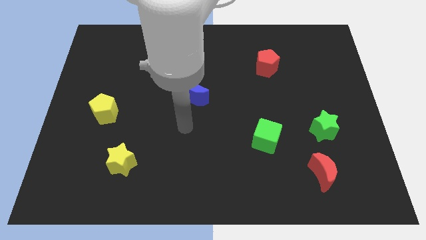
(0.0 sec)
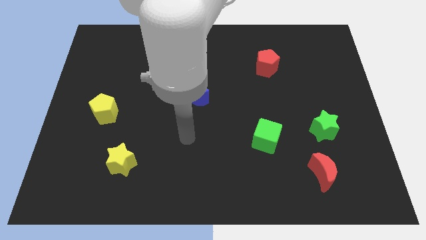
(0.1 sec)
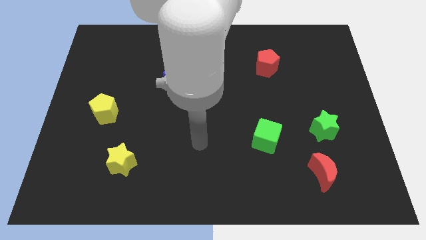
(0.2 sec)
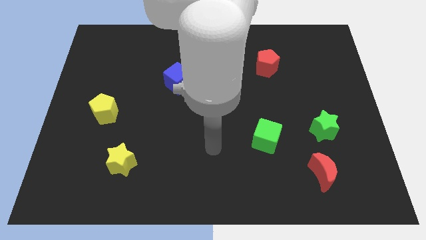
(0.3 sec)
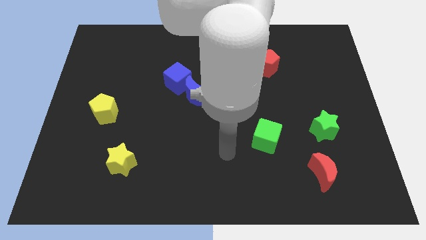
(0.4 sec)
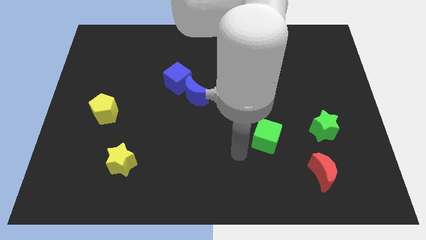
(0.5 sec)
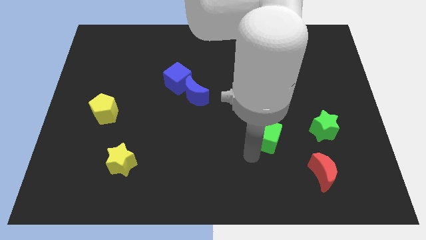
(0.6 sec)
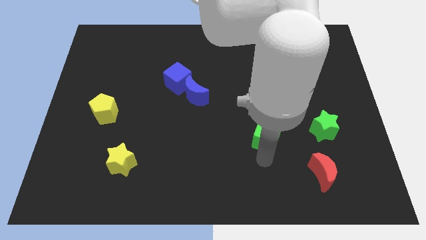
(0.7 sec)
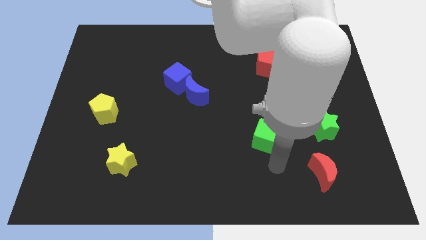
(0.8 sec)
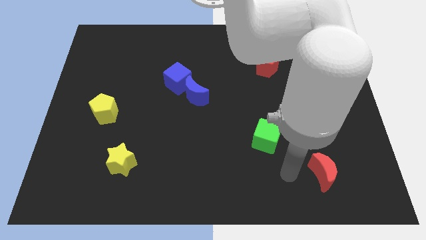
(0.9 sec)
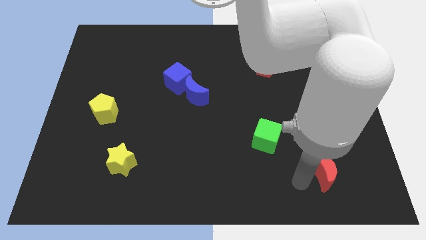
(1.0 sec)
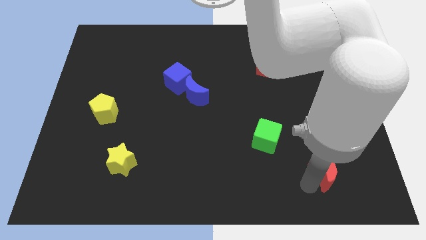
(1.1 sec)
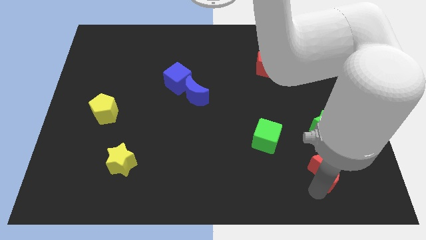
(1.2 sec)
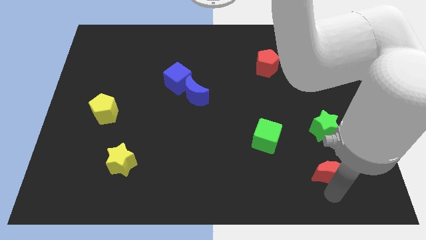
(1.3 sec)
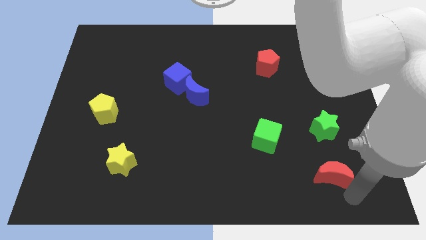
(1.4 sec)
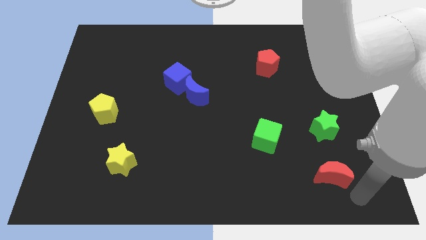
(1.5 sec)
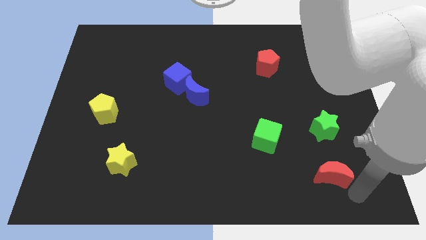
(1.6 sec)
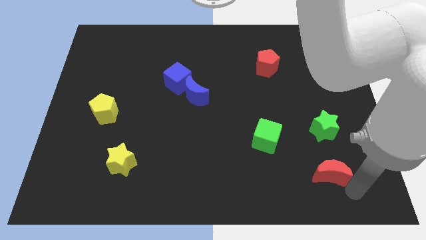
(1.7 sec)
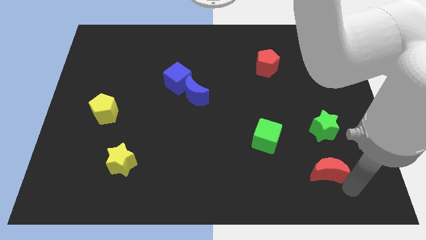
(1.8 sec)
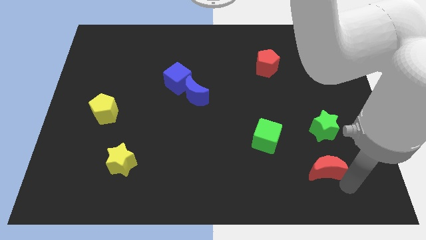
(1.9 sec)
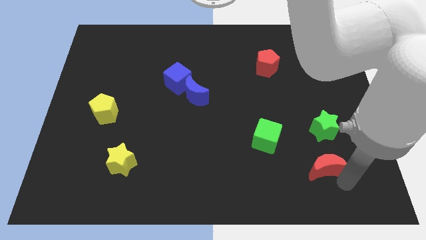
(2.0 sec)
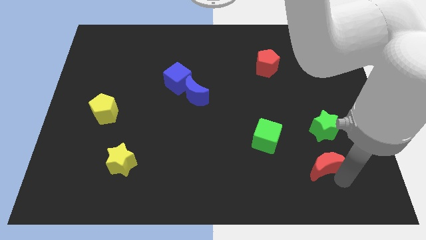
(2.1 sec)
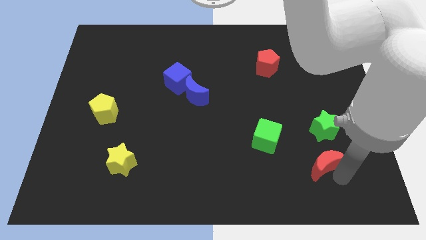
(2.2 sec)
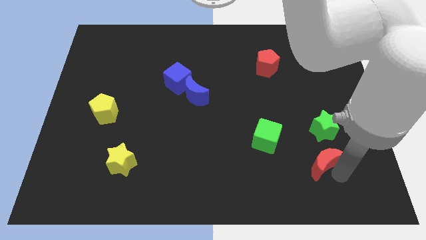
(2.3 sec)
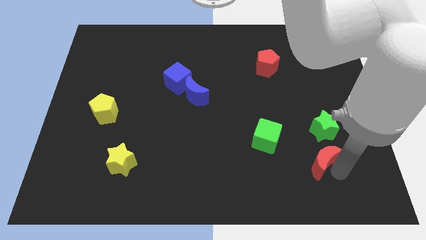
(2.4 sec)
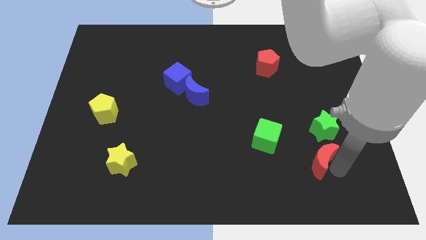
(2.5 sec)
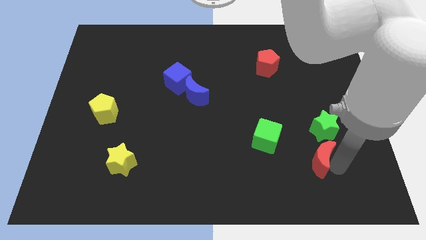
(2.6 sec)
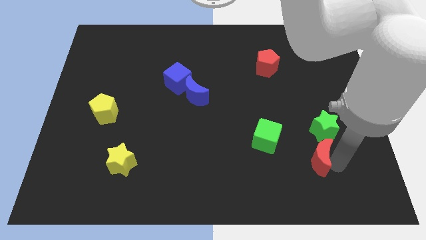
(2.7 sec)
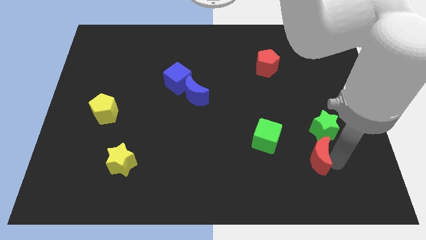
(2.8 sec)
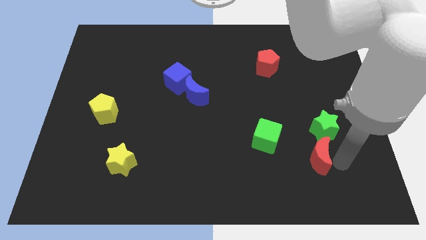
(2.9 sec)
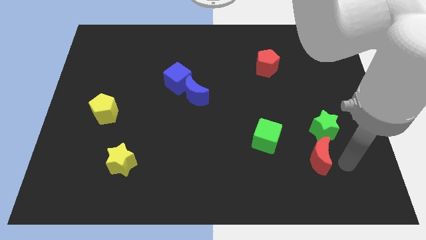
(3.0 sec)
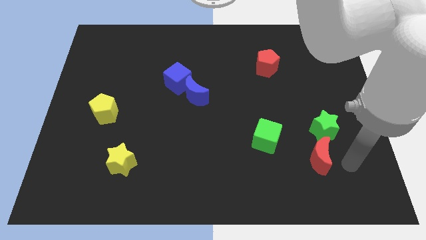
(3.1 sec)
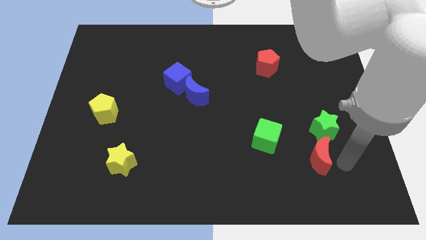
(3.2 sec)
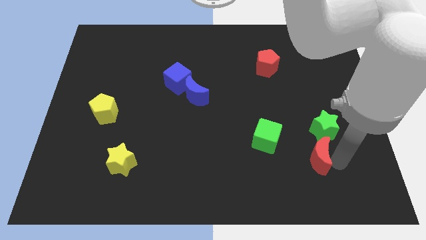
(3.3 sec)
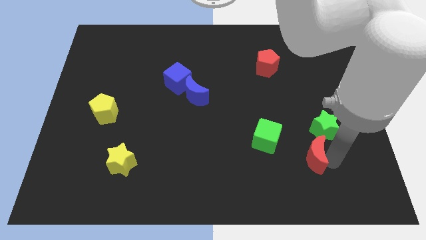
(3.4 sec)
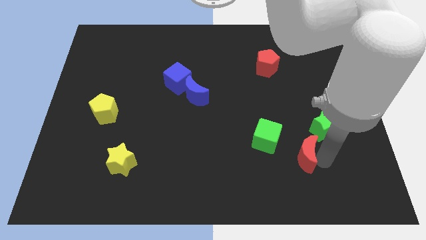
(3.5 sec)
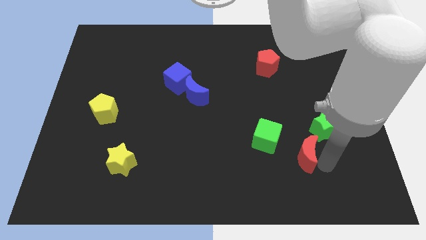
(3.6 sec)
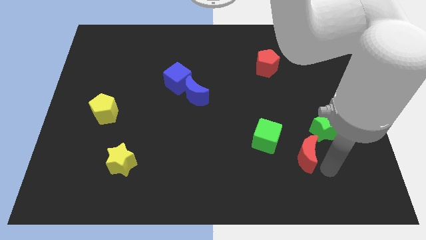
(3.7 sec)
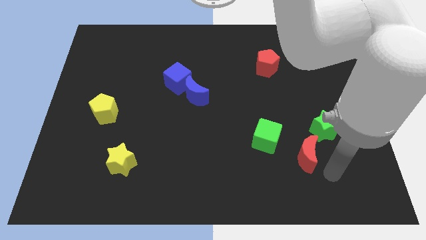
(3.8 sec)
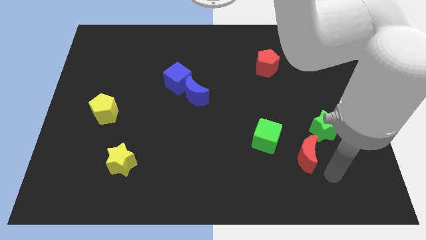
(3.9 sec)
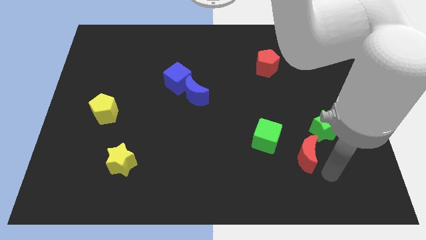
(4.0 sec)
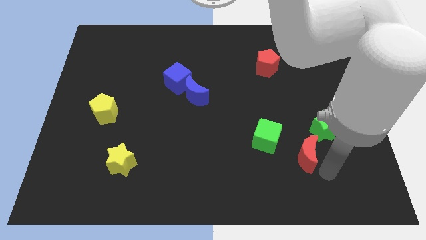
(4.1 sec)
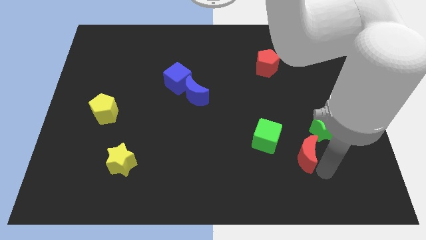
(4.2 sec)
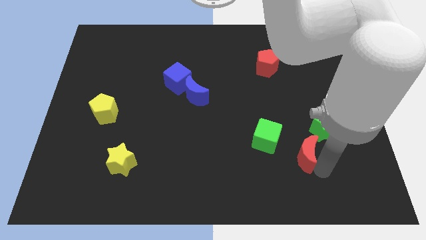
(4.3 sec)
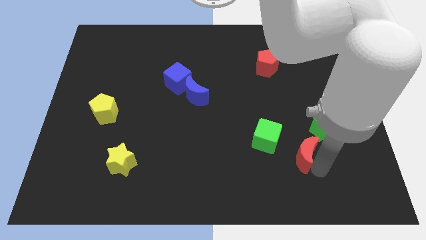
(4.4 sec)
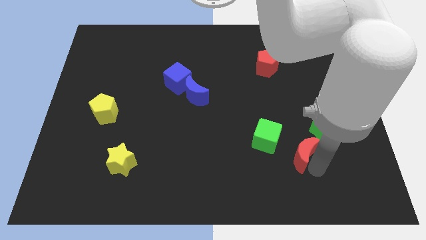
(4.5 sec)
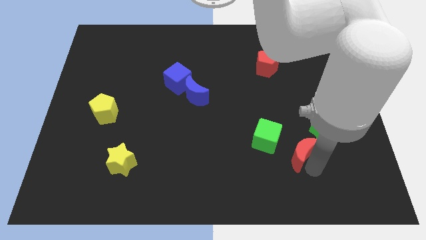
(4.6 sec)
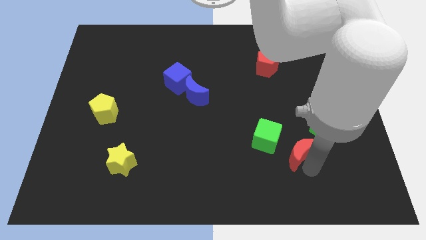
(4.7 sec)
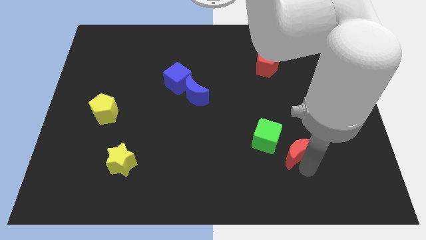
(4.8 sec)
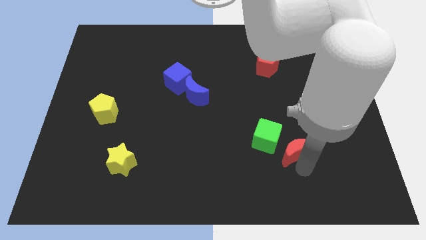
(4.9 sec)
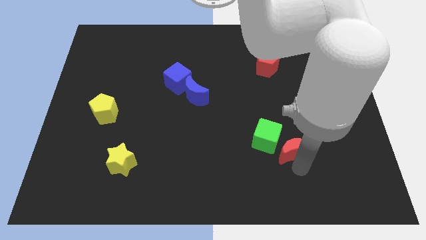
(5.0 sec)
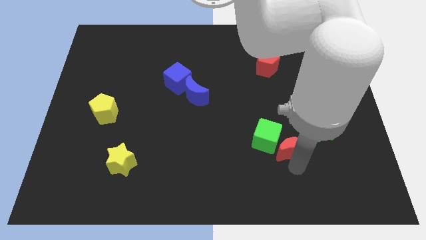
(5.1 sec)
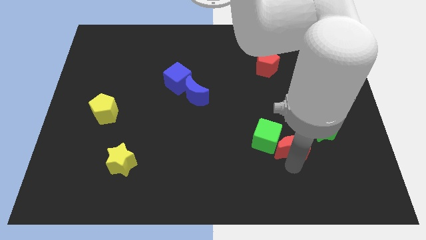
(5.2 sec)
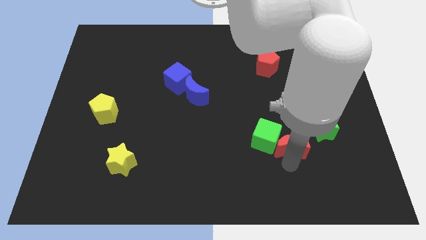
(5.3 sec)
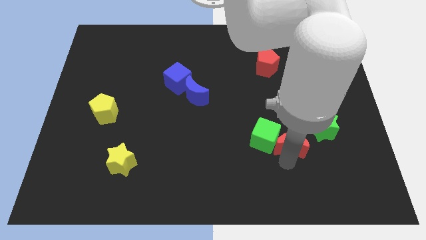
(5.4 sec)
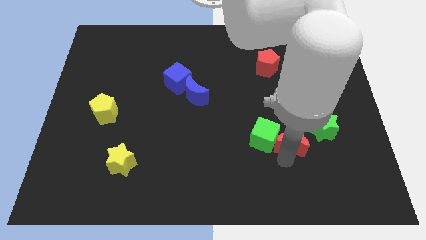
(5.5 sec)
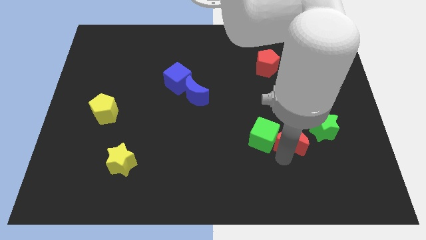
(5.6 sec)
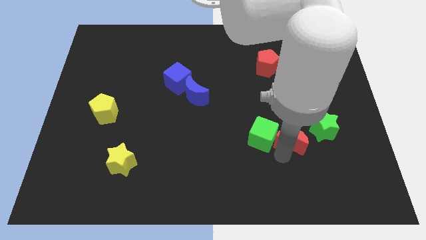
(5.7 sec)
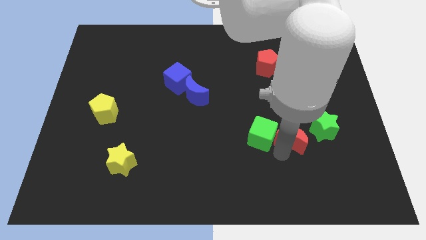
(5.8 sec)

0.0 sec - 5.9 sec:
slide the red moon up a bit

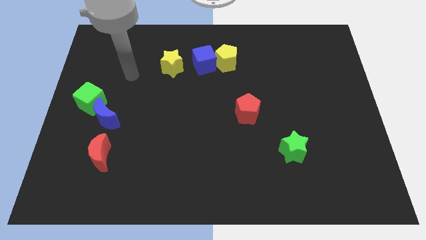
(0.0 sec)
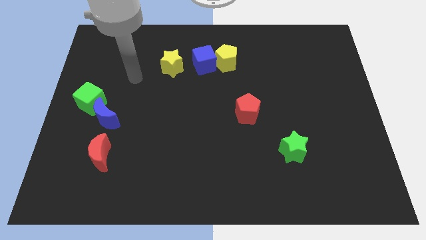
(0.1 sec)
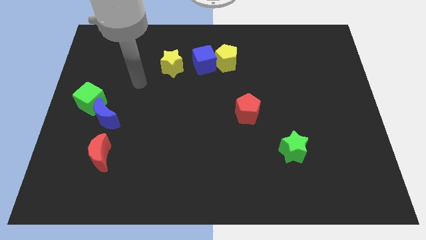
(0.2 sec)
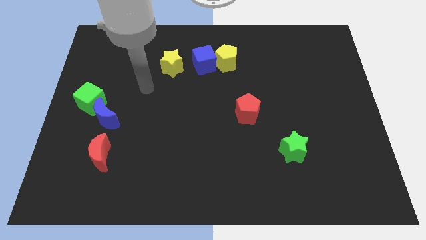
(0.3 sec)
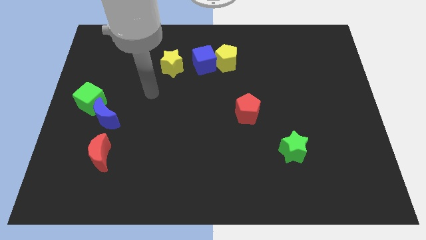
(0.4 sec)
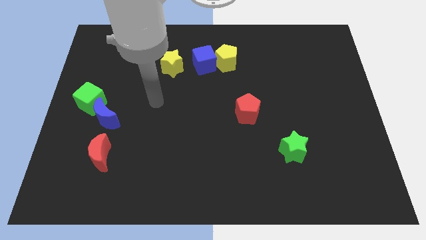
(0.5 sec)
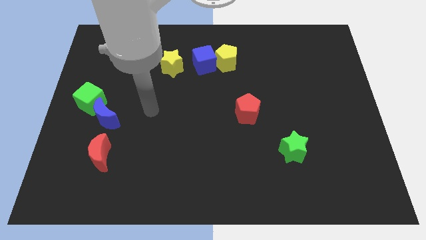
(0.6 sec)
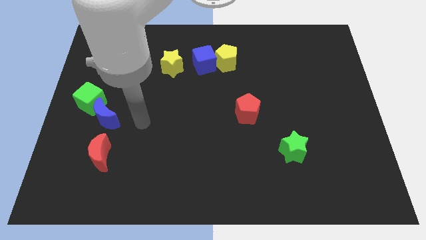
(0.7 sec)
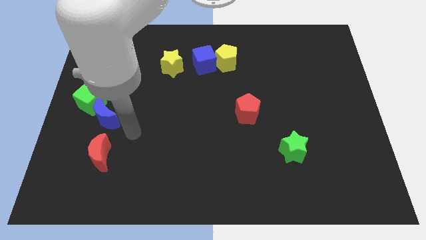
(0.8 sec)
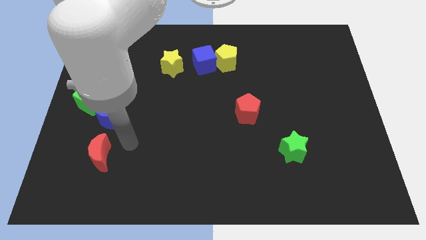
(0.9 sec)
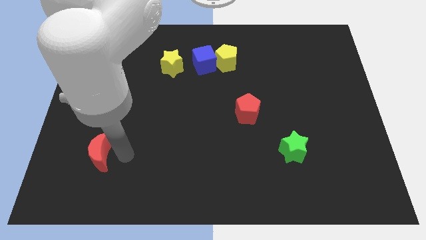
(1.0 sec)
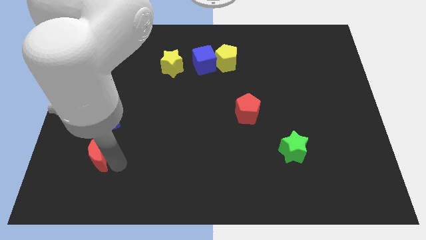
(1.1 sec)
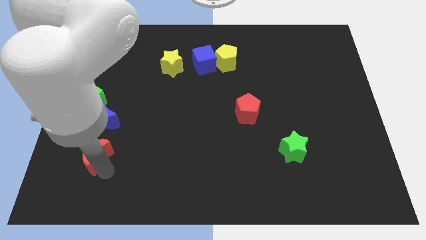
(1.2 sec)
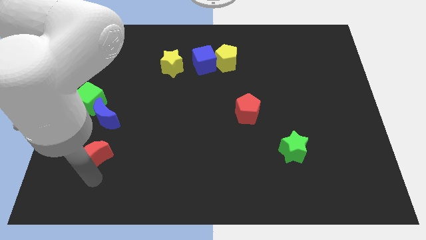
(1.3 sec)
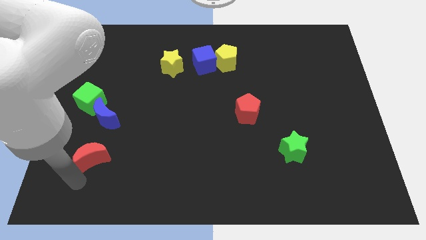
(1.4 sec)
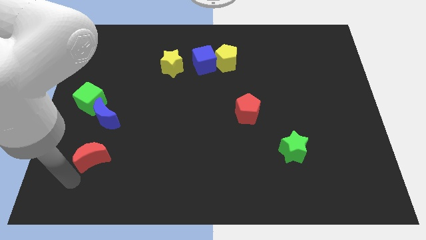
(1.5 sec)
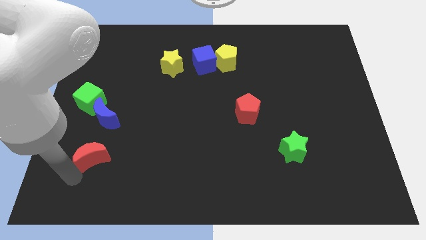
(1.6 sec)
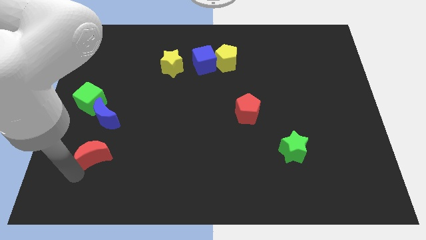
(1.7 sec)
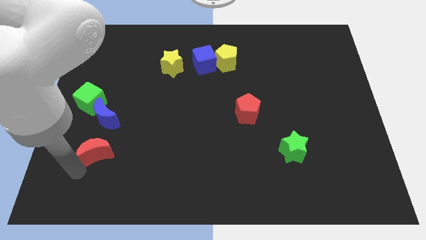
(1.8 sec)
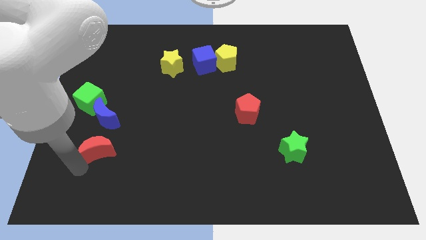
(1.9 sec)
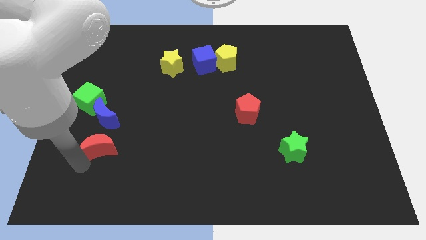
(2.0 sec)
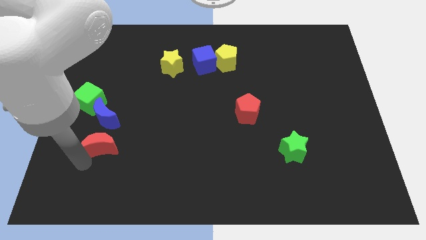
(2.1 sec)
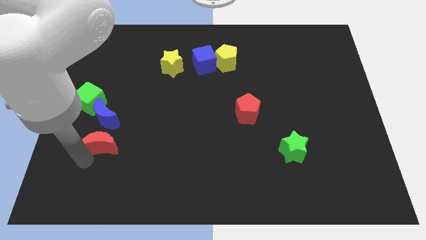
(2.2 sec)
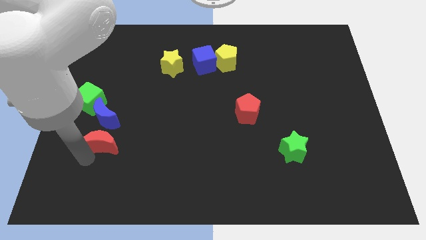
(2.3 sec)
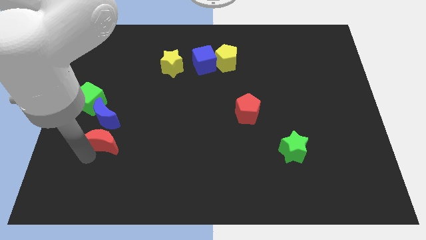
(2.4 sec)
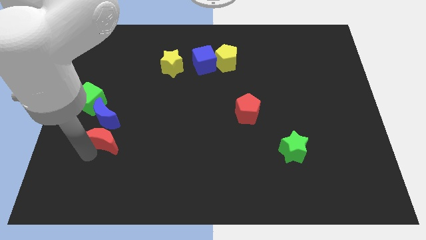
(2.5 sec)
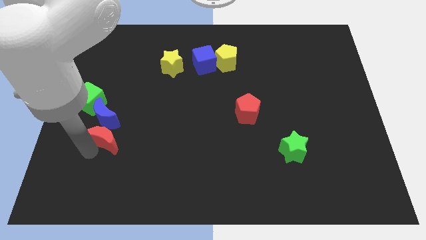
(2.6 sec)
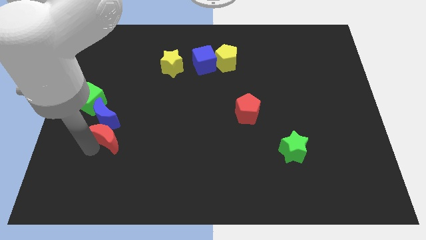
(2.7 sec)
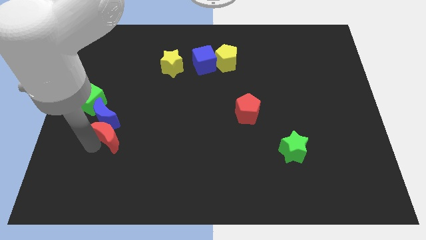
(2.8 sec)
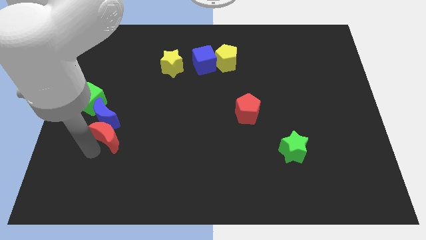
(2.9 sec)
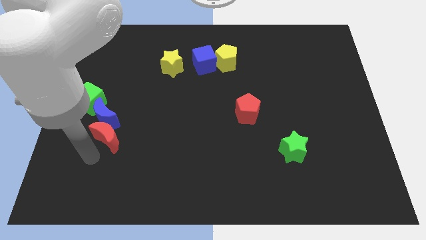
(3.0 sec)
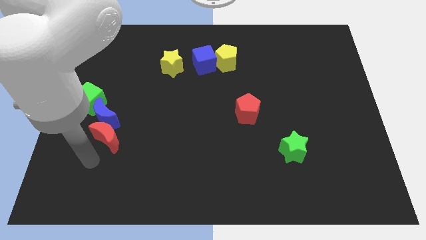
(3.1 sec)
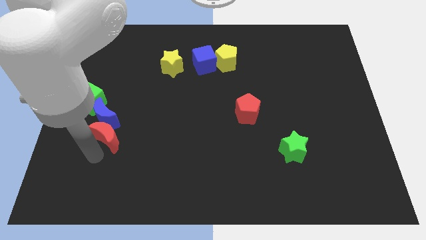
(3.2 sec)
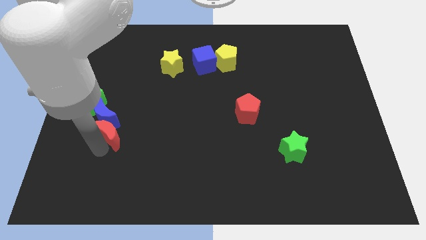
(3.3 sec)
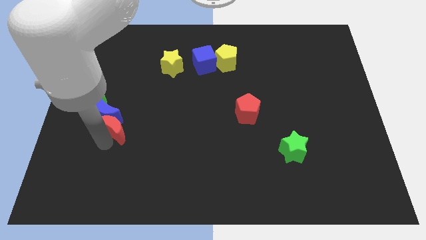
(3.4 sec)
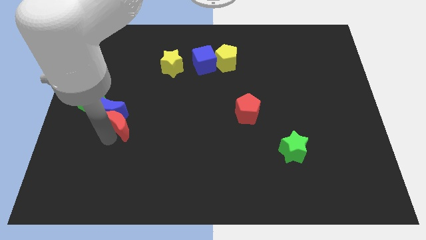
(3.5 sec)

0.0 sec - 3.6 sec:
push the red moon upwards a bit
